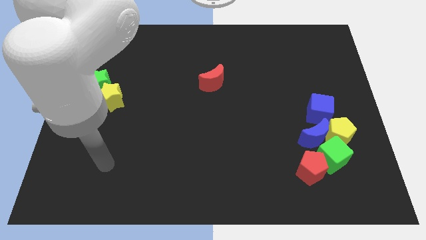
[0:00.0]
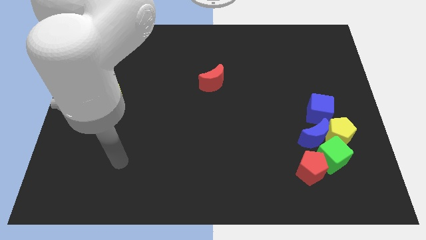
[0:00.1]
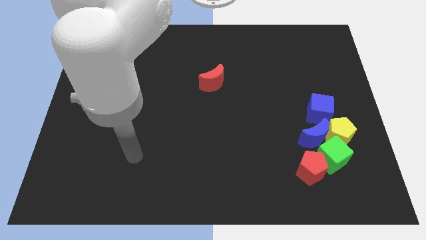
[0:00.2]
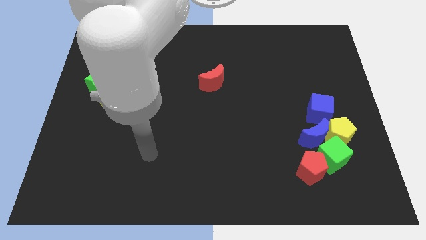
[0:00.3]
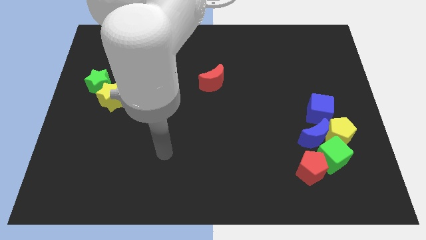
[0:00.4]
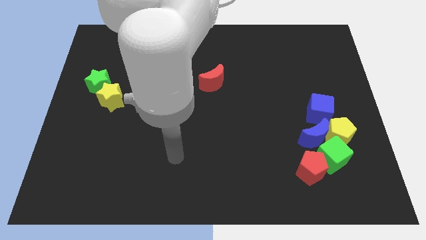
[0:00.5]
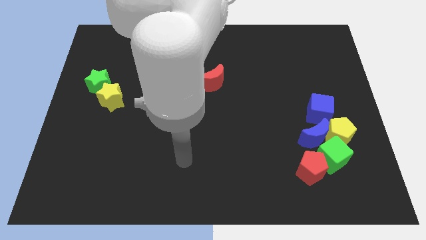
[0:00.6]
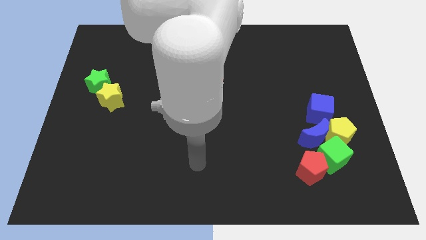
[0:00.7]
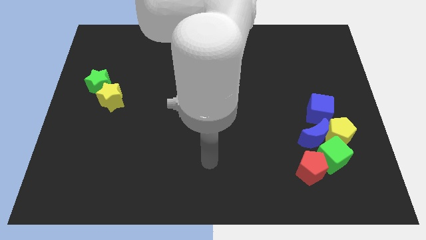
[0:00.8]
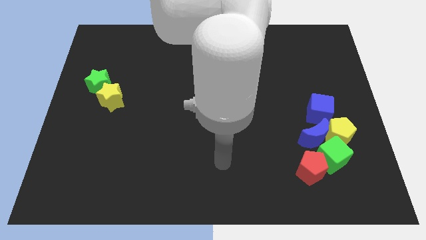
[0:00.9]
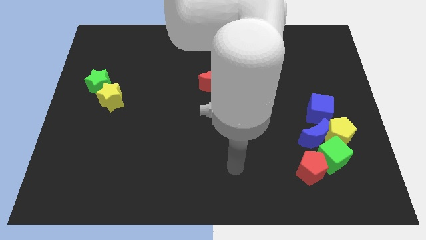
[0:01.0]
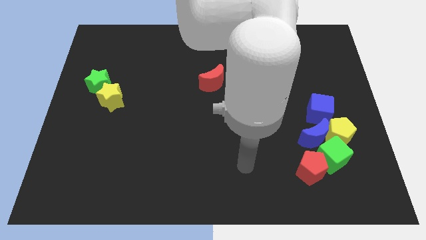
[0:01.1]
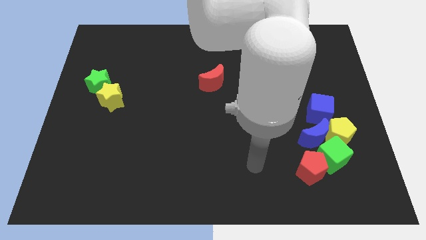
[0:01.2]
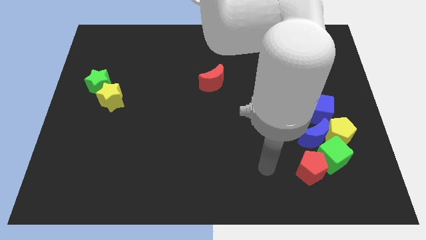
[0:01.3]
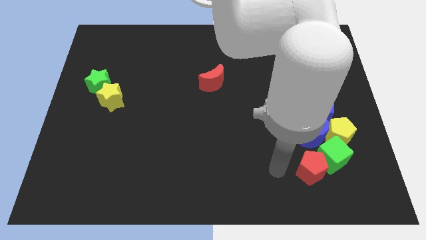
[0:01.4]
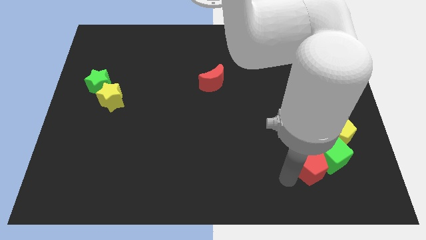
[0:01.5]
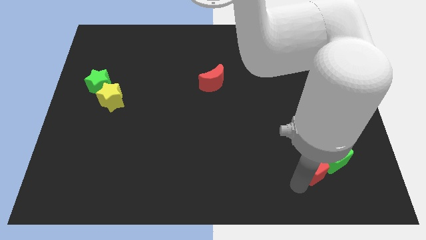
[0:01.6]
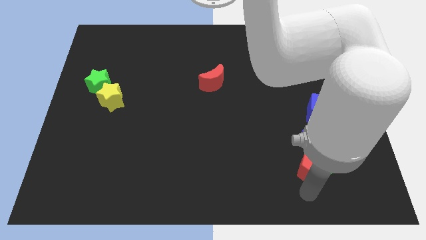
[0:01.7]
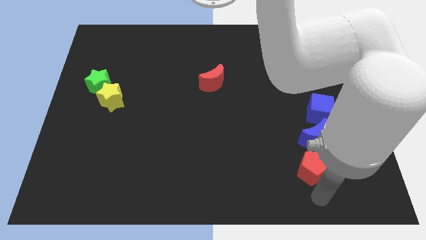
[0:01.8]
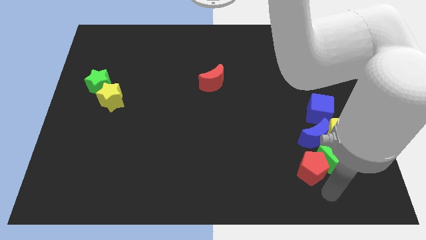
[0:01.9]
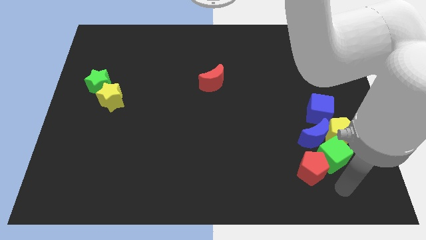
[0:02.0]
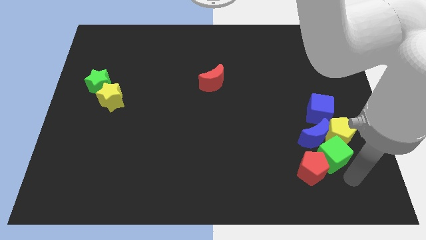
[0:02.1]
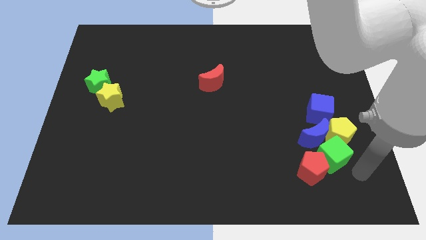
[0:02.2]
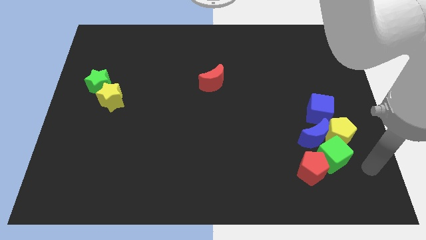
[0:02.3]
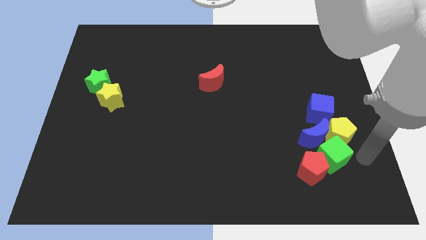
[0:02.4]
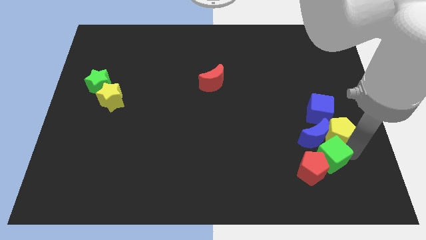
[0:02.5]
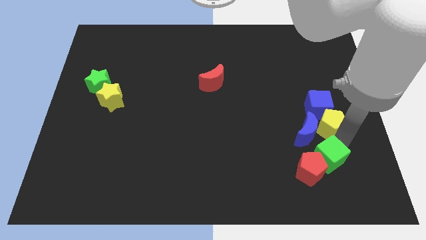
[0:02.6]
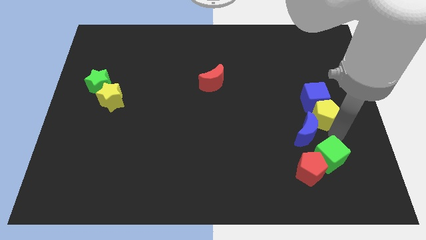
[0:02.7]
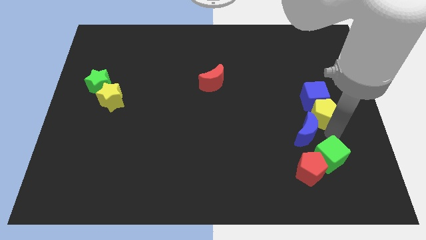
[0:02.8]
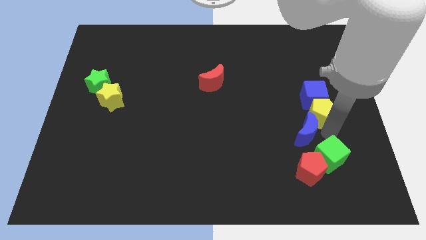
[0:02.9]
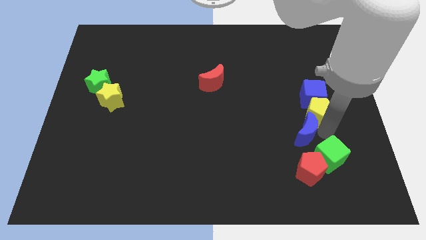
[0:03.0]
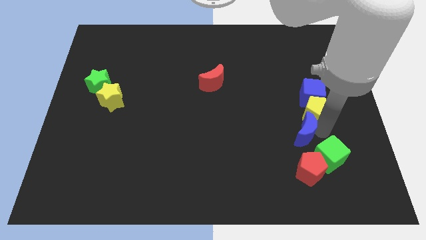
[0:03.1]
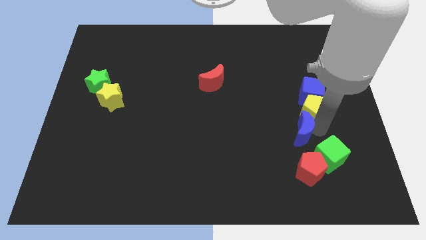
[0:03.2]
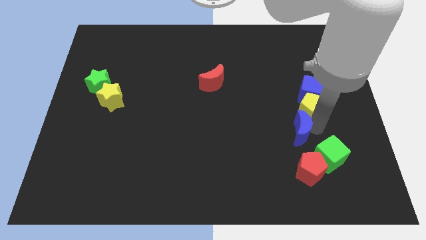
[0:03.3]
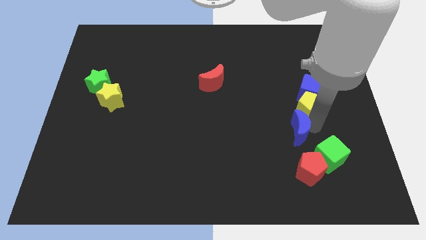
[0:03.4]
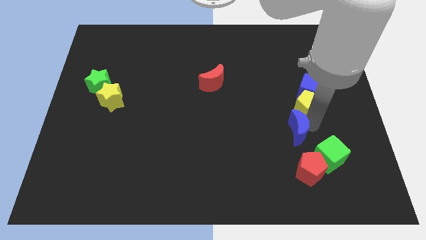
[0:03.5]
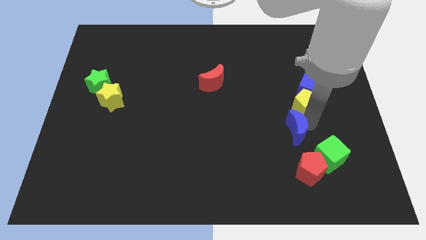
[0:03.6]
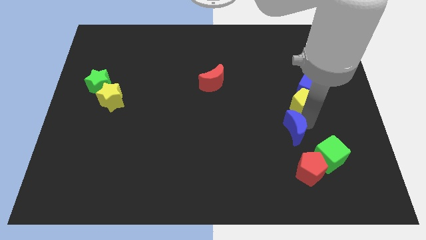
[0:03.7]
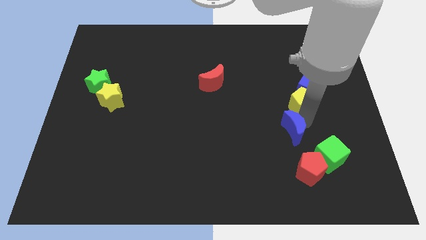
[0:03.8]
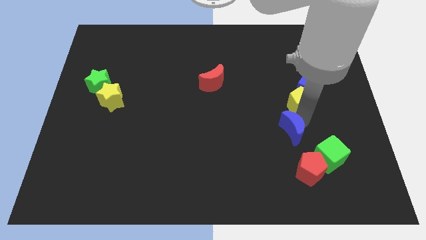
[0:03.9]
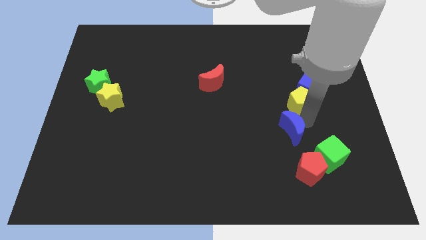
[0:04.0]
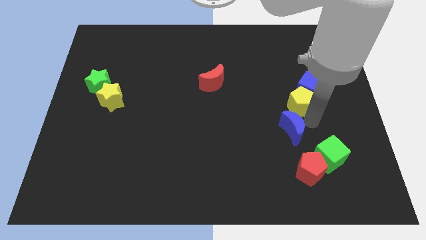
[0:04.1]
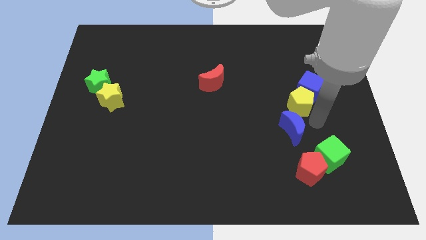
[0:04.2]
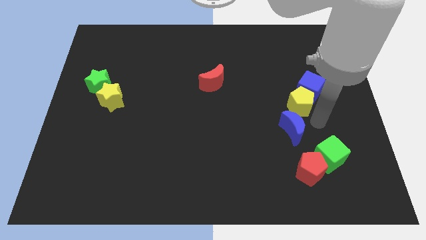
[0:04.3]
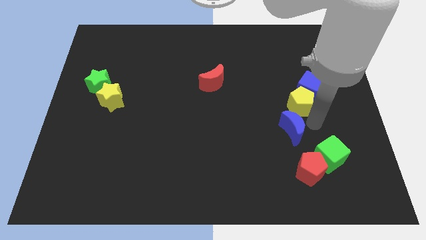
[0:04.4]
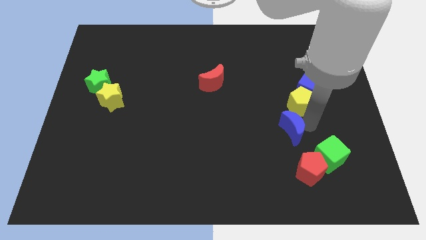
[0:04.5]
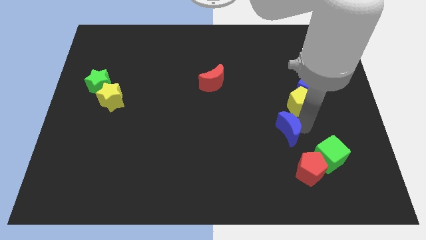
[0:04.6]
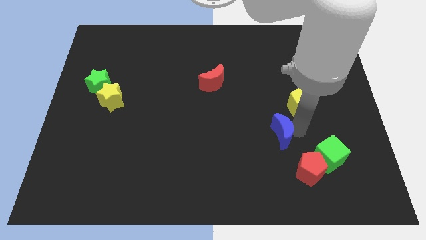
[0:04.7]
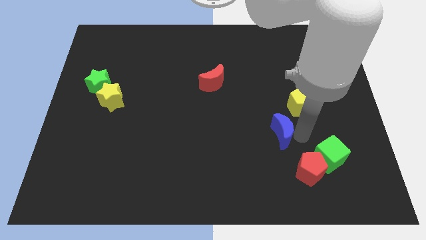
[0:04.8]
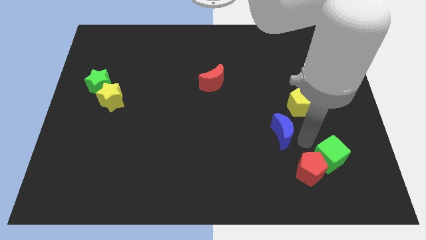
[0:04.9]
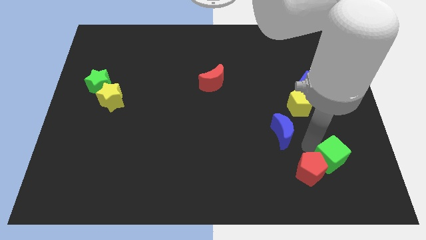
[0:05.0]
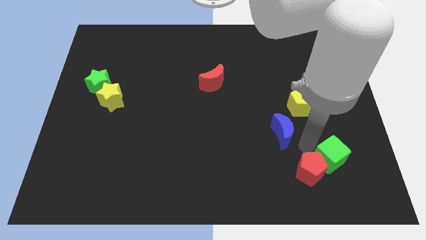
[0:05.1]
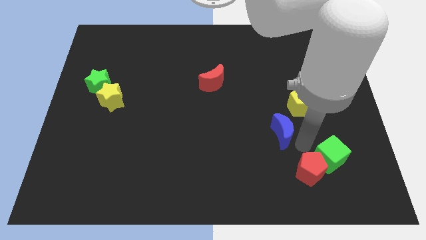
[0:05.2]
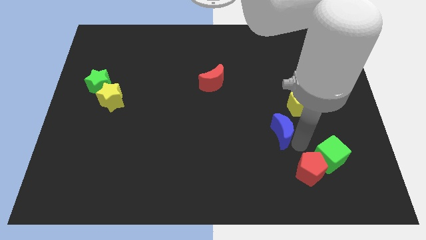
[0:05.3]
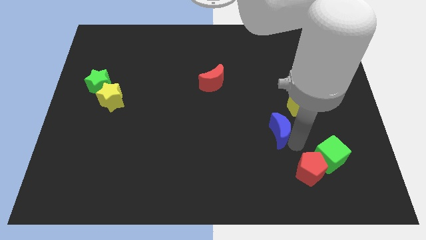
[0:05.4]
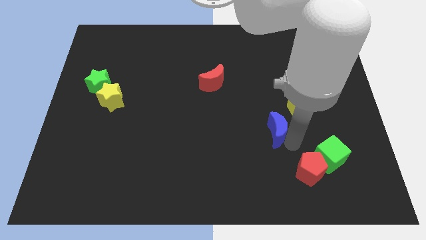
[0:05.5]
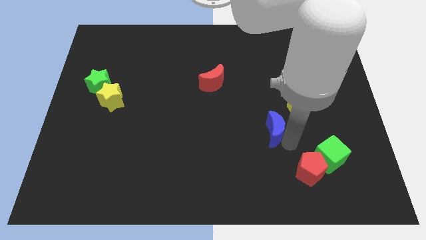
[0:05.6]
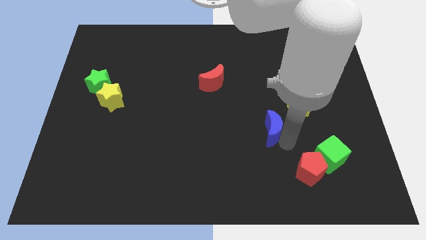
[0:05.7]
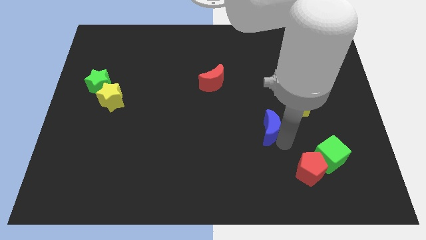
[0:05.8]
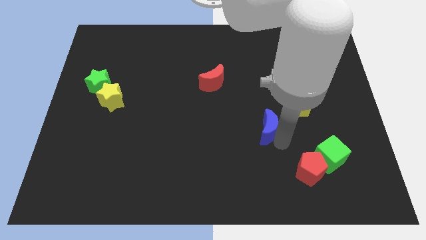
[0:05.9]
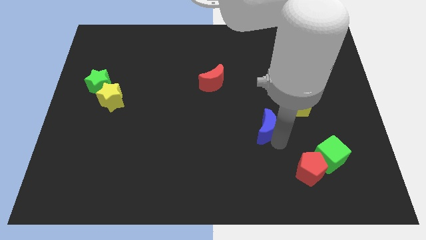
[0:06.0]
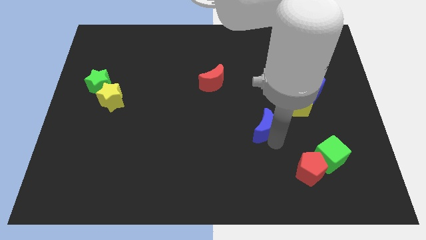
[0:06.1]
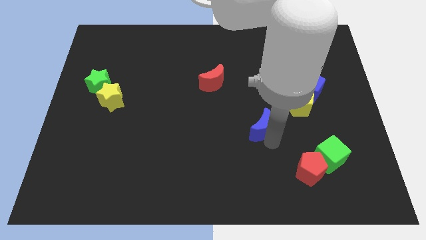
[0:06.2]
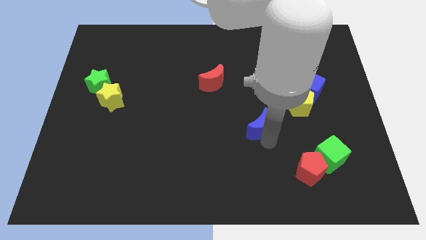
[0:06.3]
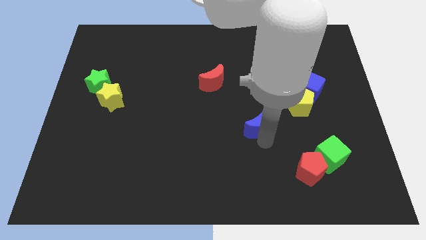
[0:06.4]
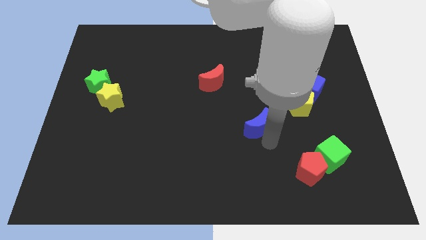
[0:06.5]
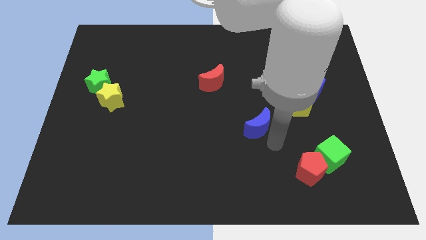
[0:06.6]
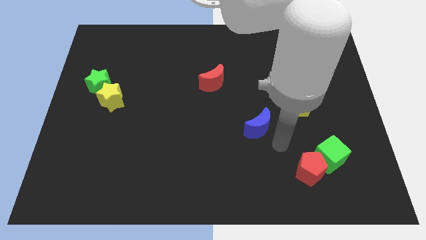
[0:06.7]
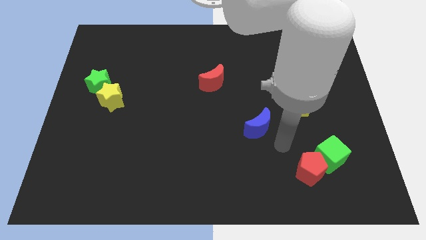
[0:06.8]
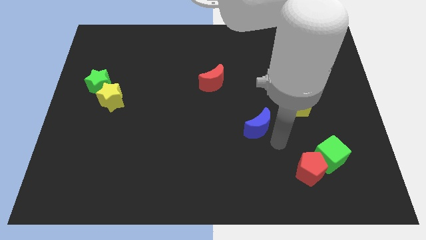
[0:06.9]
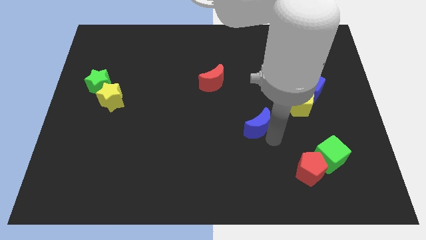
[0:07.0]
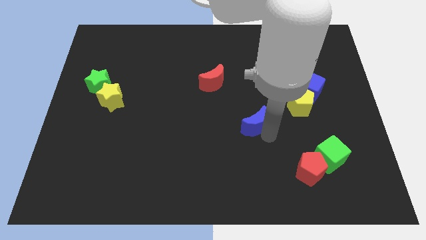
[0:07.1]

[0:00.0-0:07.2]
push the blue moon to the center of the board
